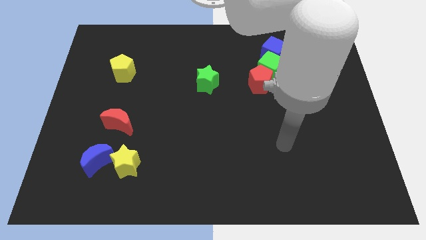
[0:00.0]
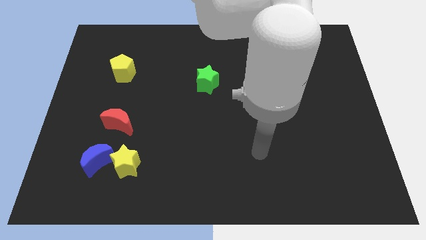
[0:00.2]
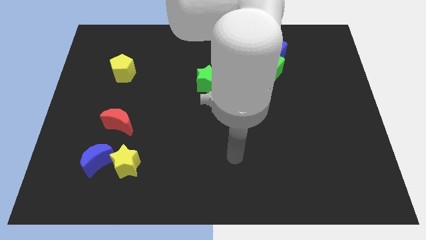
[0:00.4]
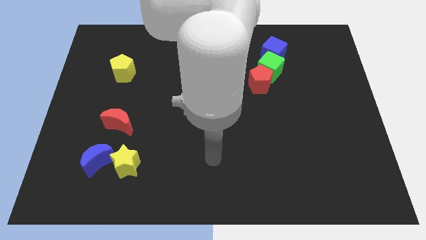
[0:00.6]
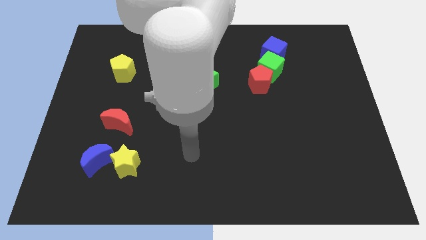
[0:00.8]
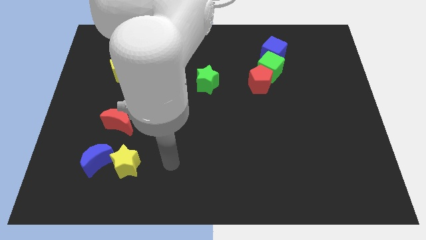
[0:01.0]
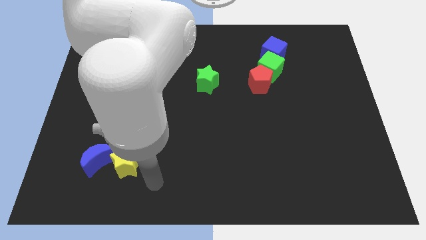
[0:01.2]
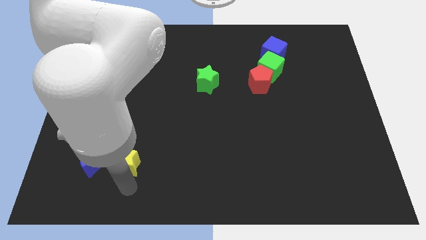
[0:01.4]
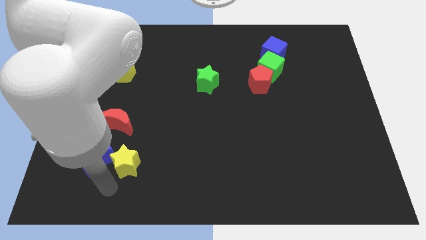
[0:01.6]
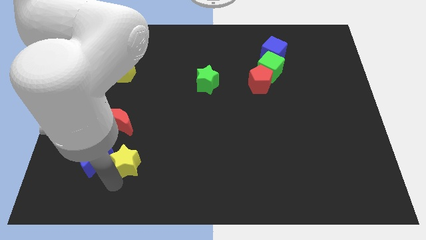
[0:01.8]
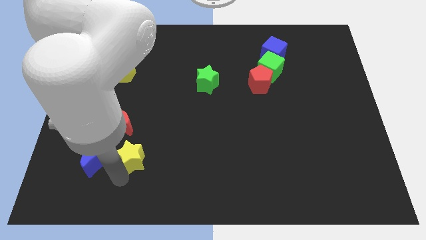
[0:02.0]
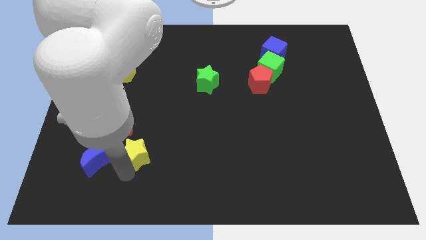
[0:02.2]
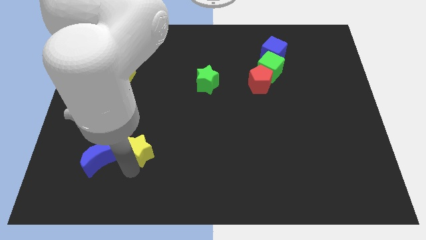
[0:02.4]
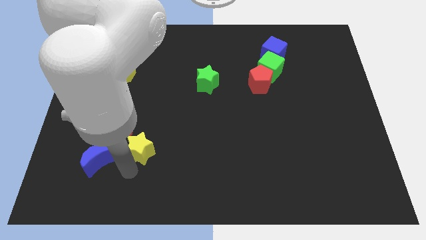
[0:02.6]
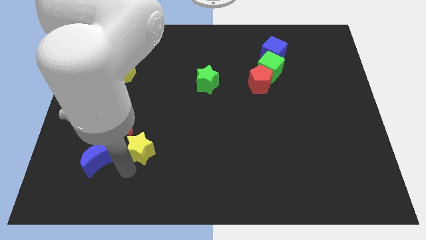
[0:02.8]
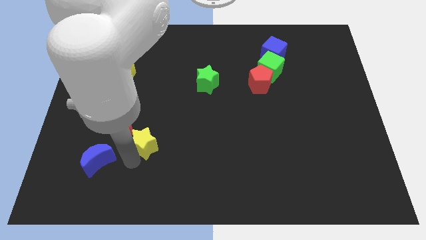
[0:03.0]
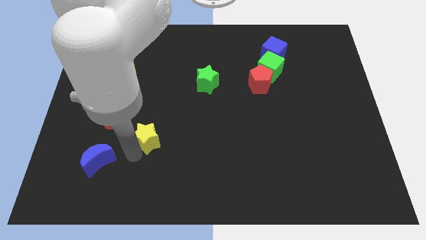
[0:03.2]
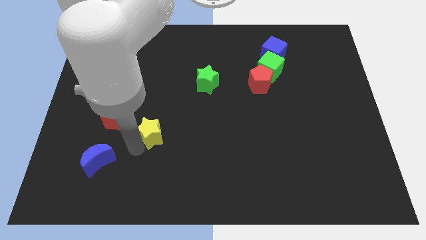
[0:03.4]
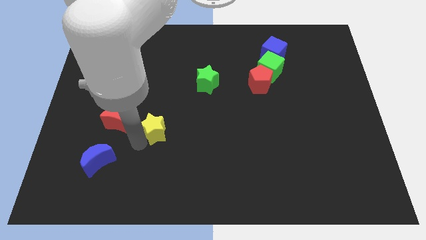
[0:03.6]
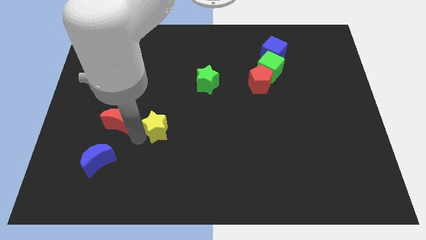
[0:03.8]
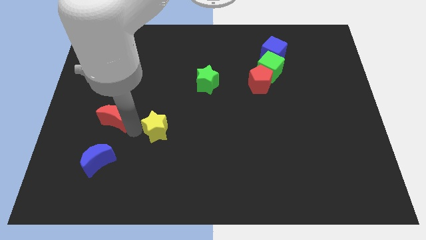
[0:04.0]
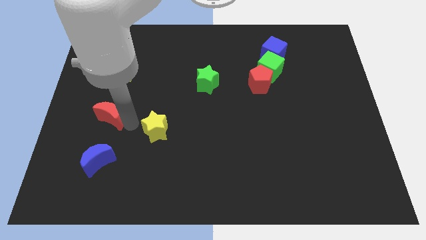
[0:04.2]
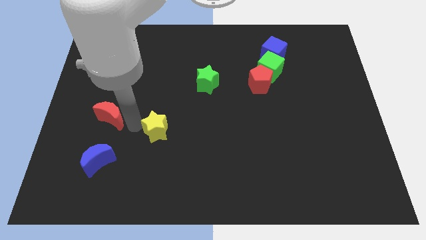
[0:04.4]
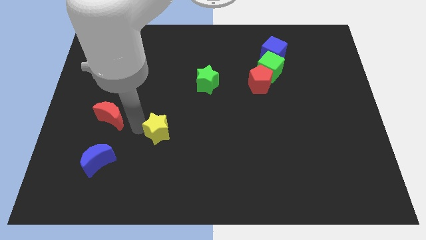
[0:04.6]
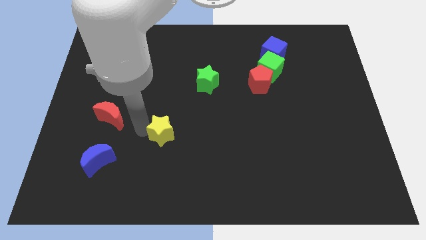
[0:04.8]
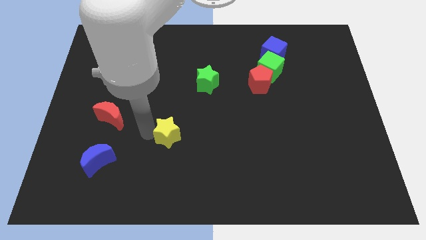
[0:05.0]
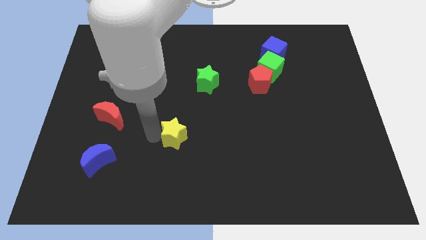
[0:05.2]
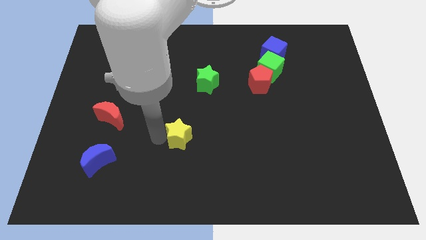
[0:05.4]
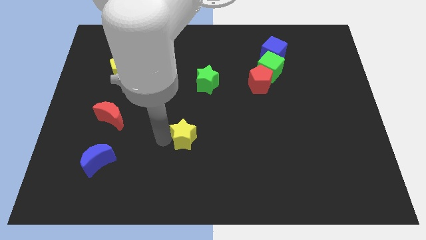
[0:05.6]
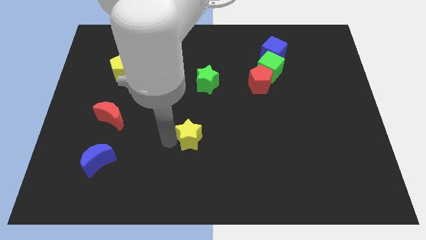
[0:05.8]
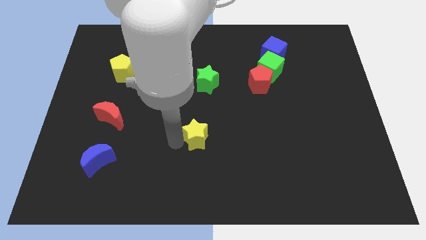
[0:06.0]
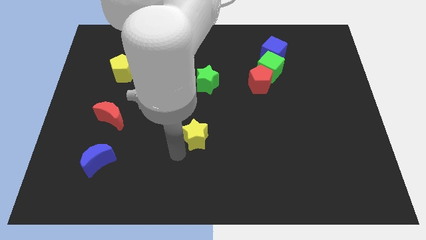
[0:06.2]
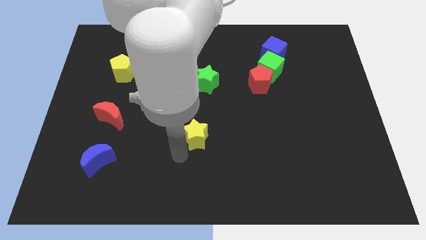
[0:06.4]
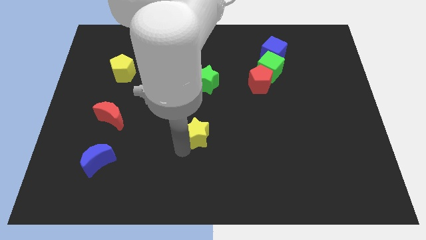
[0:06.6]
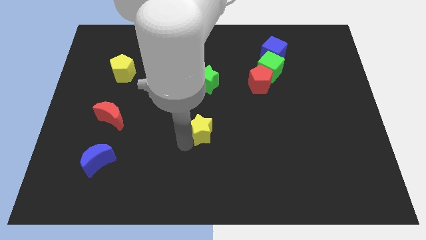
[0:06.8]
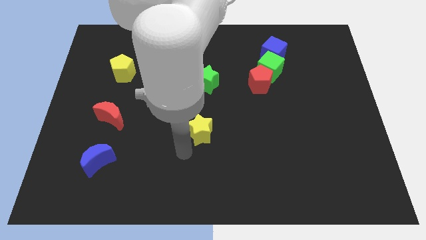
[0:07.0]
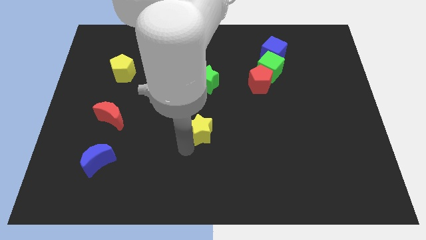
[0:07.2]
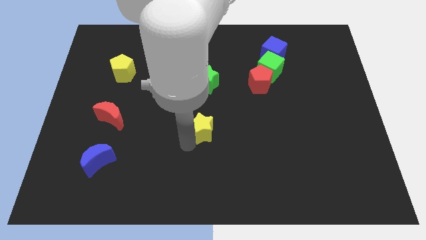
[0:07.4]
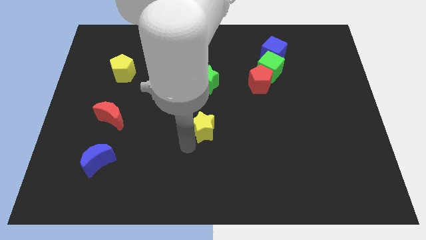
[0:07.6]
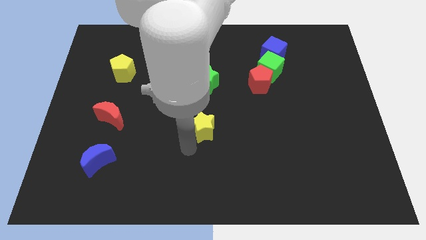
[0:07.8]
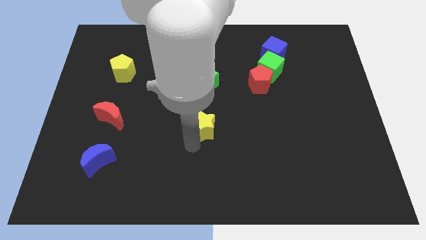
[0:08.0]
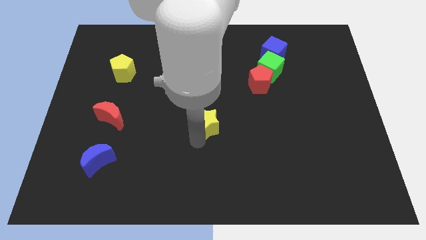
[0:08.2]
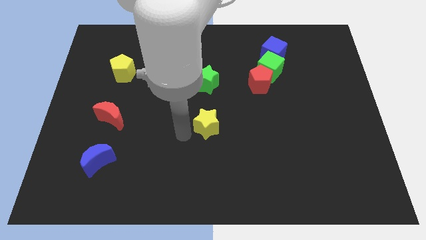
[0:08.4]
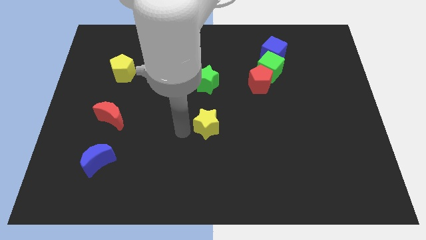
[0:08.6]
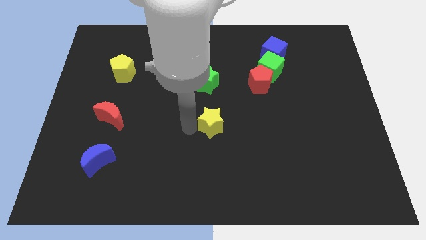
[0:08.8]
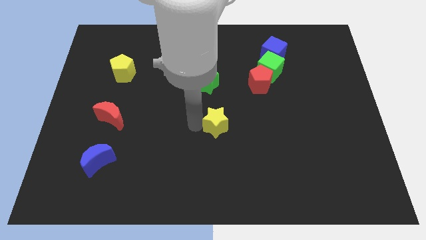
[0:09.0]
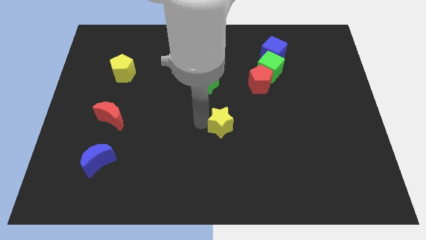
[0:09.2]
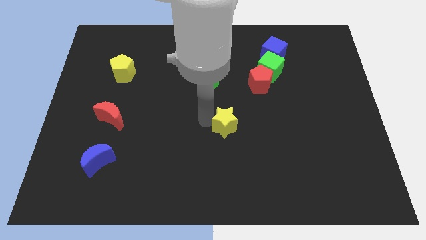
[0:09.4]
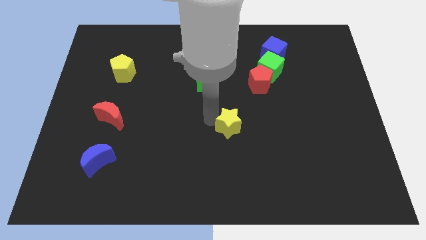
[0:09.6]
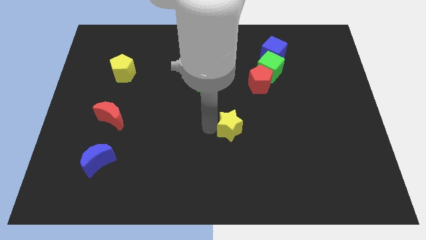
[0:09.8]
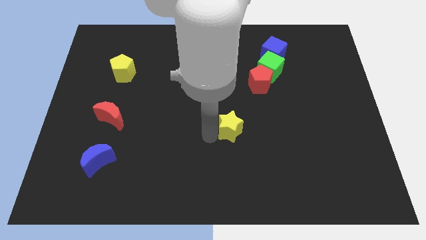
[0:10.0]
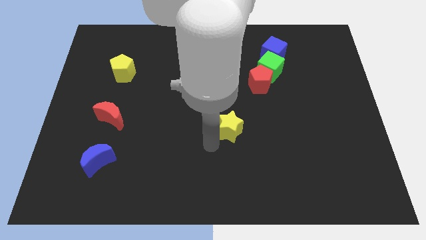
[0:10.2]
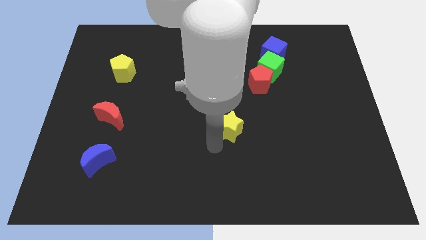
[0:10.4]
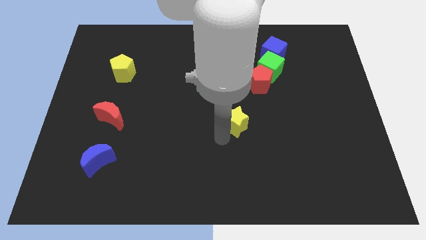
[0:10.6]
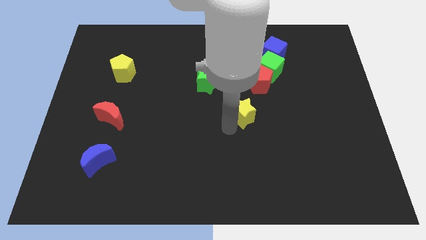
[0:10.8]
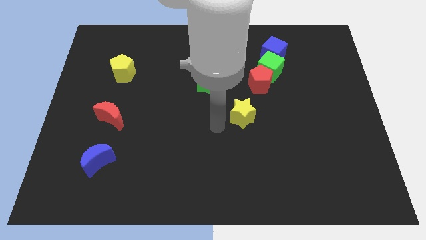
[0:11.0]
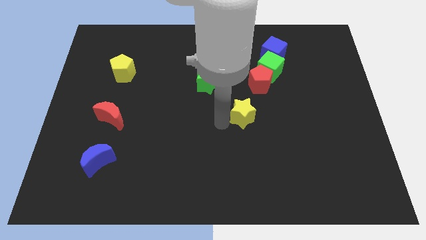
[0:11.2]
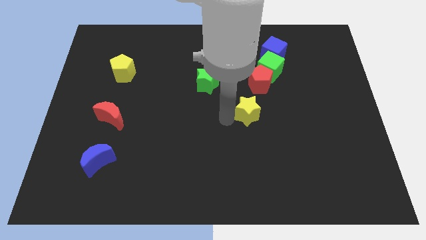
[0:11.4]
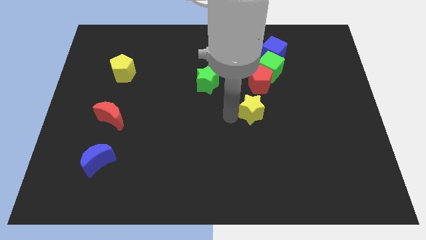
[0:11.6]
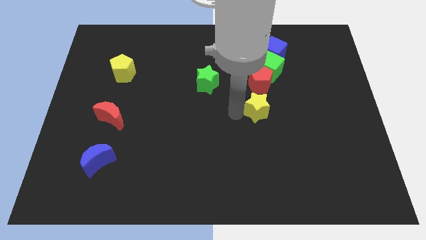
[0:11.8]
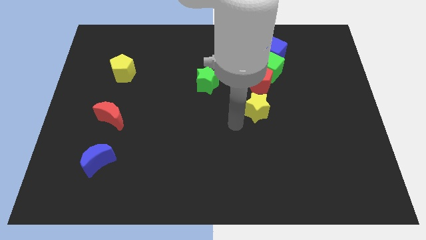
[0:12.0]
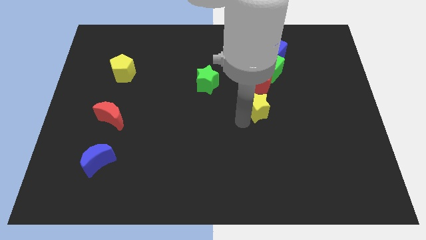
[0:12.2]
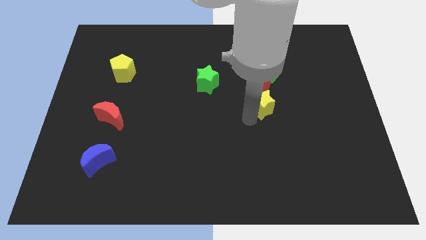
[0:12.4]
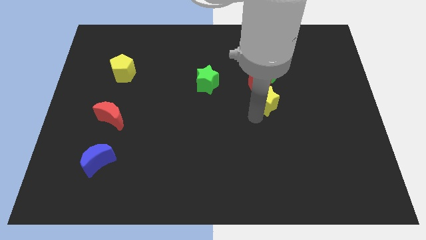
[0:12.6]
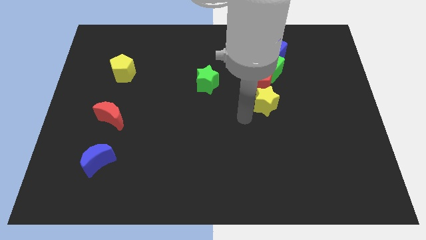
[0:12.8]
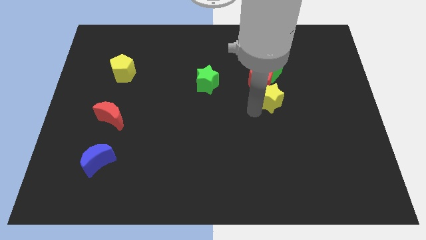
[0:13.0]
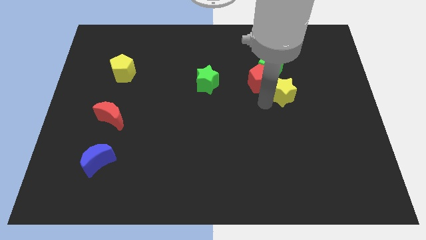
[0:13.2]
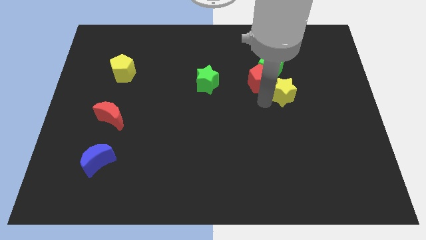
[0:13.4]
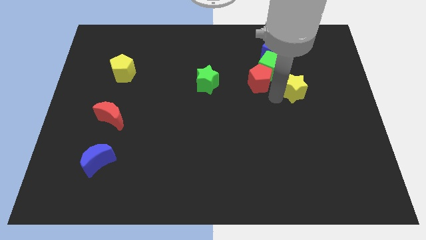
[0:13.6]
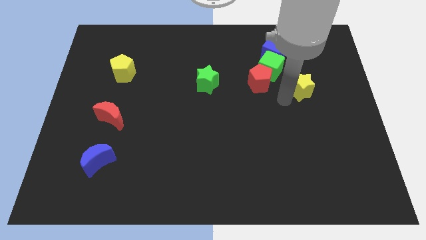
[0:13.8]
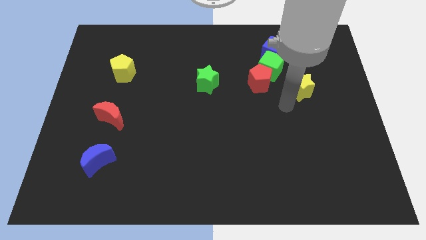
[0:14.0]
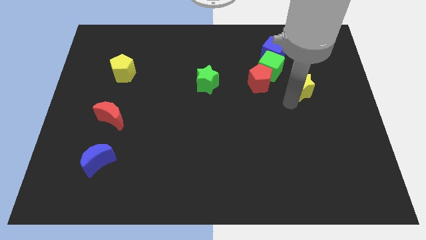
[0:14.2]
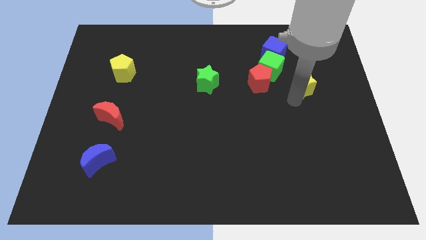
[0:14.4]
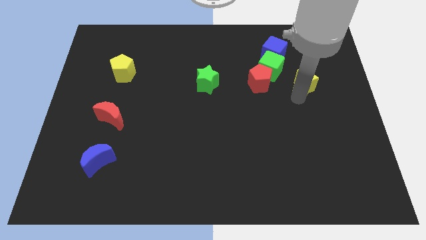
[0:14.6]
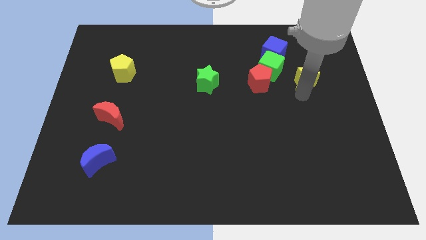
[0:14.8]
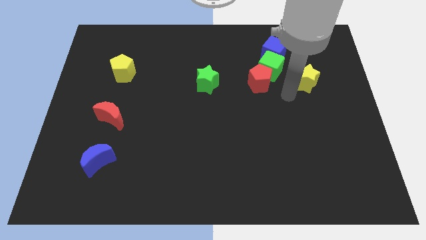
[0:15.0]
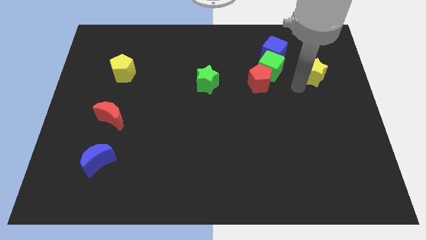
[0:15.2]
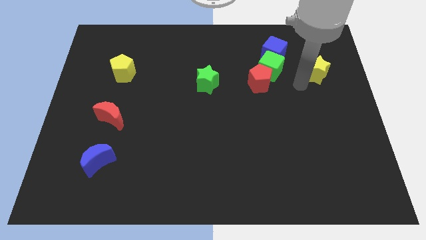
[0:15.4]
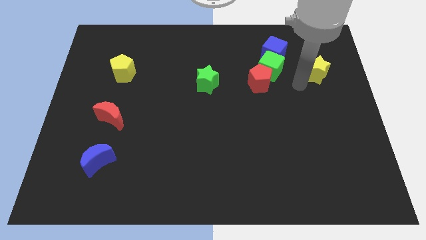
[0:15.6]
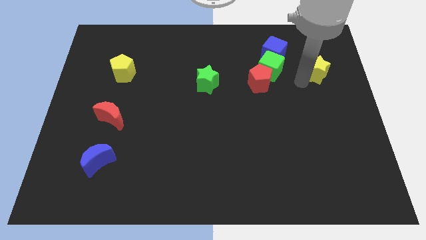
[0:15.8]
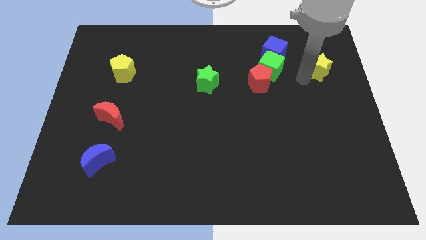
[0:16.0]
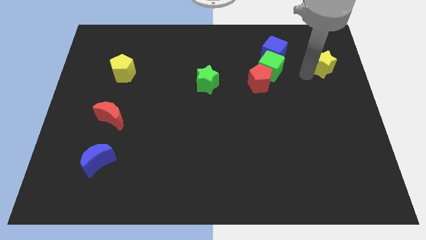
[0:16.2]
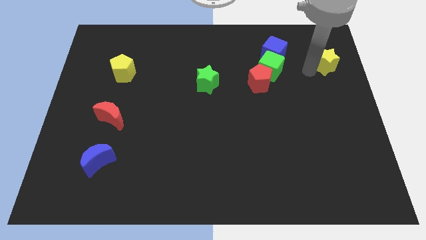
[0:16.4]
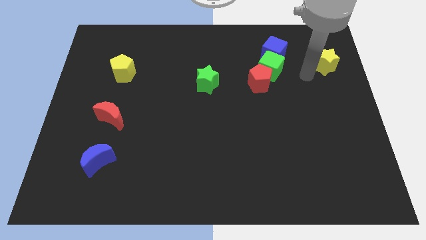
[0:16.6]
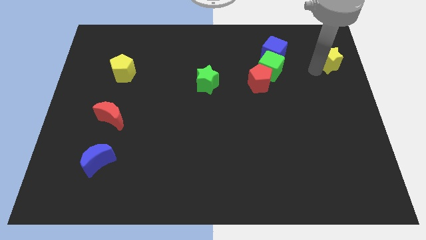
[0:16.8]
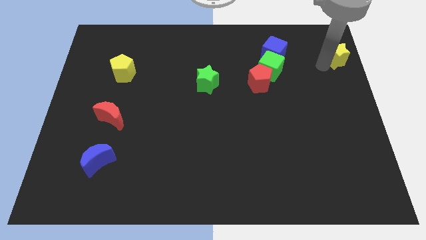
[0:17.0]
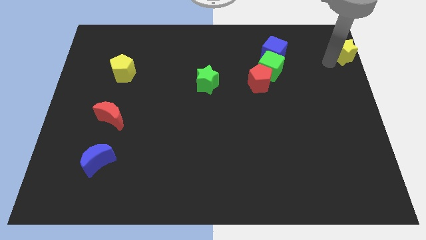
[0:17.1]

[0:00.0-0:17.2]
push the yellow star to the top right corner
